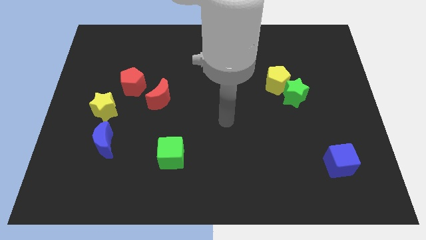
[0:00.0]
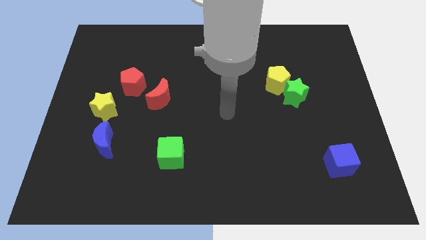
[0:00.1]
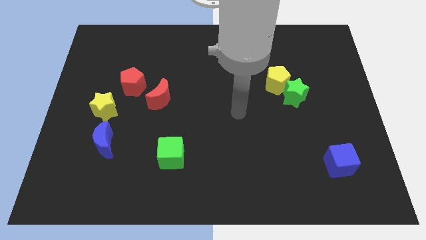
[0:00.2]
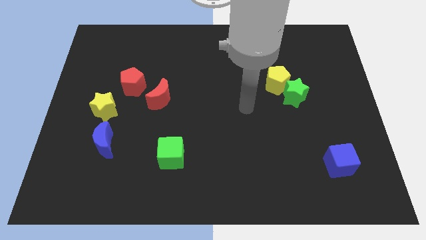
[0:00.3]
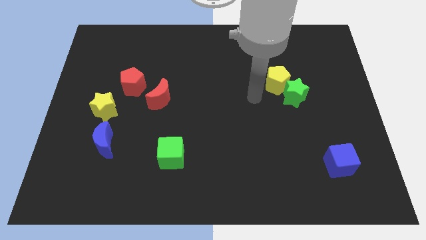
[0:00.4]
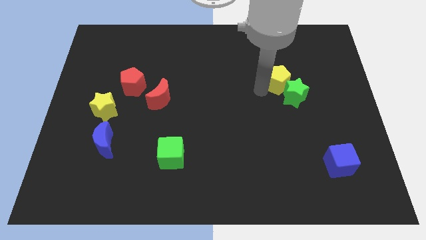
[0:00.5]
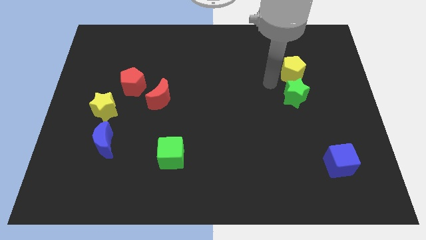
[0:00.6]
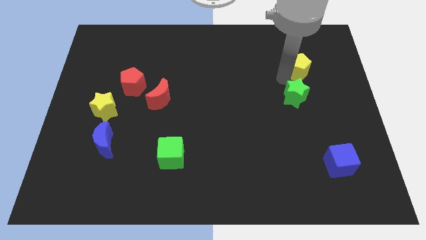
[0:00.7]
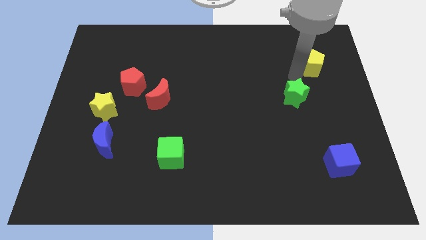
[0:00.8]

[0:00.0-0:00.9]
move the green star away from the yellow pentagon

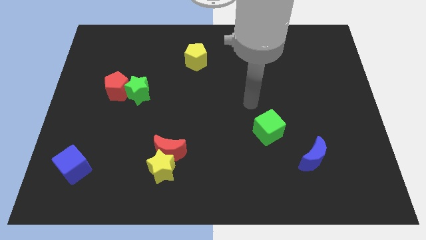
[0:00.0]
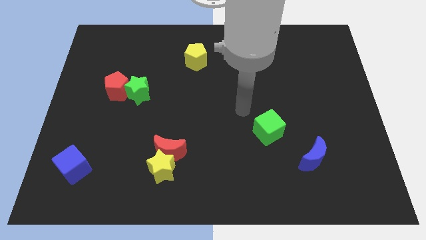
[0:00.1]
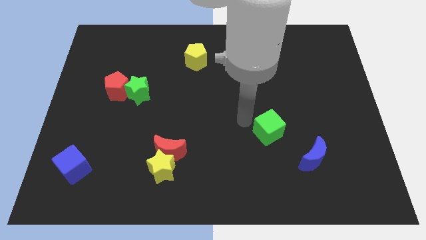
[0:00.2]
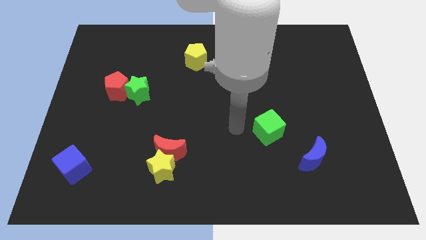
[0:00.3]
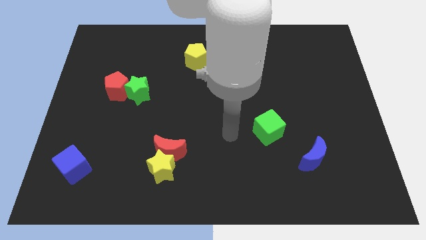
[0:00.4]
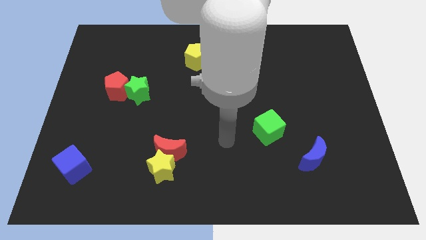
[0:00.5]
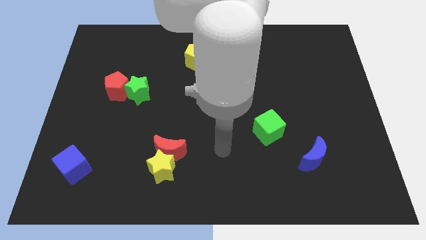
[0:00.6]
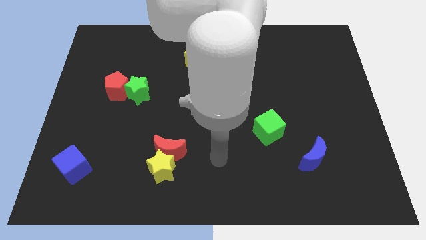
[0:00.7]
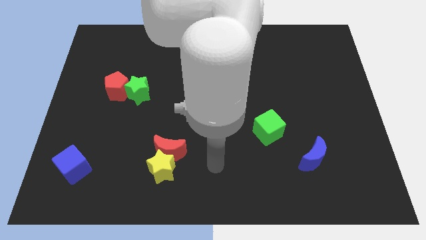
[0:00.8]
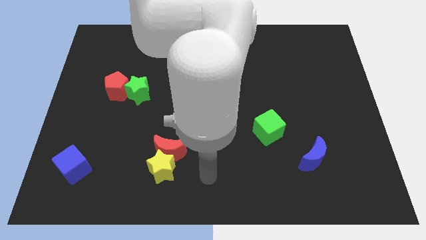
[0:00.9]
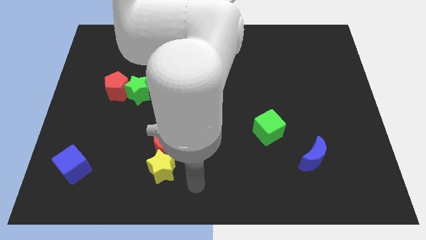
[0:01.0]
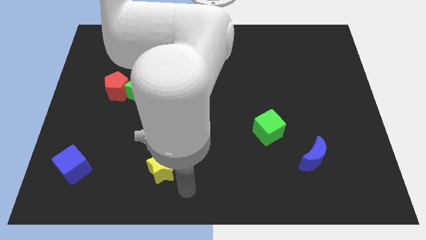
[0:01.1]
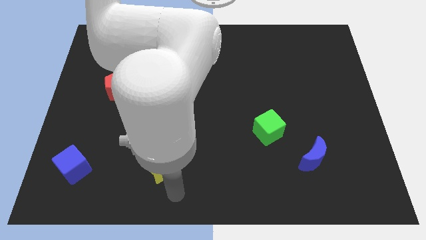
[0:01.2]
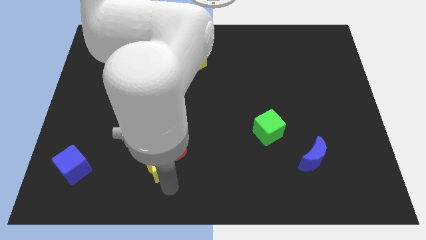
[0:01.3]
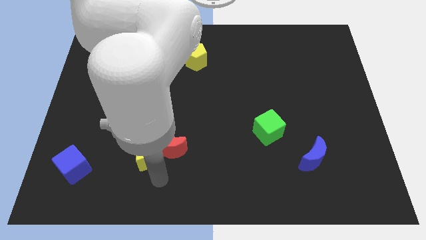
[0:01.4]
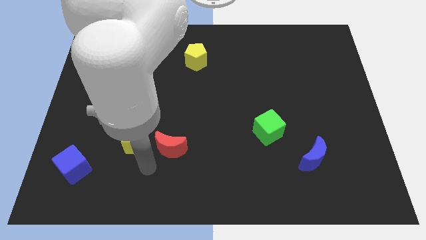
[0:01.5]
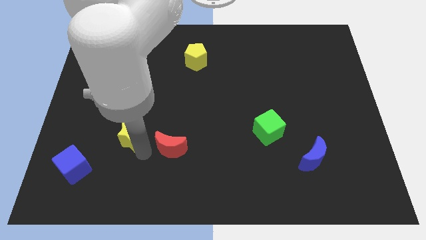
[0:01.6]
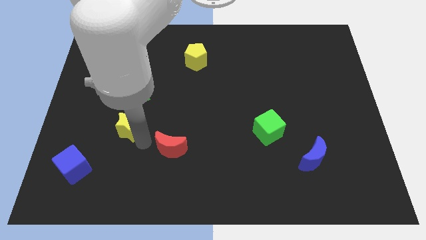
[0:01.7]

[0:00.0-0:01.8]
move the red moon away from the yellow star

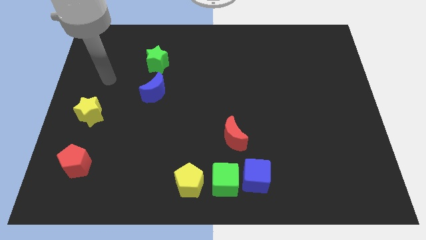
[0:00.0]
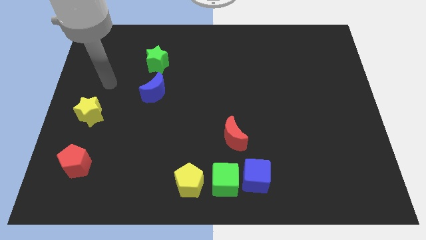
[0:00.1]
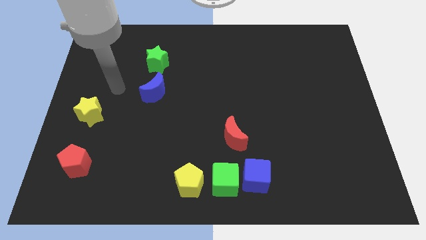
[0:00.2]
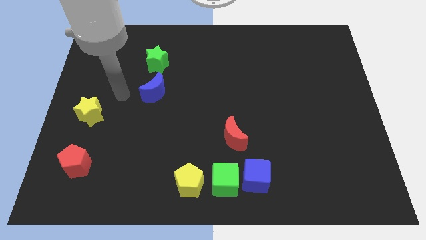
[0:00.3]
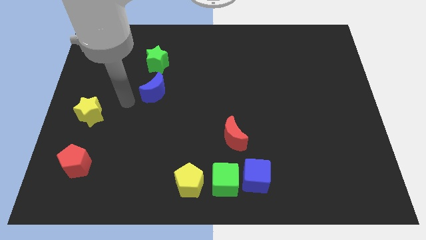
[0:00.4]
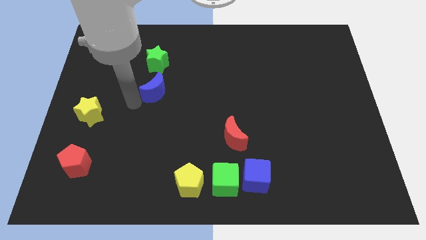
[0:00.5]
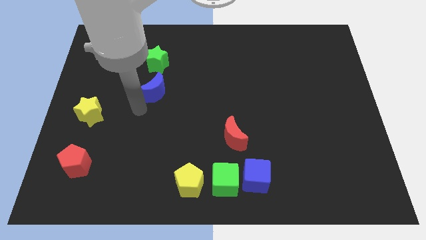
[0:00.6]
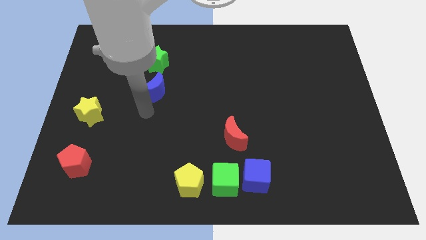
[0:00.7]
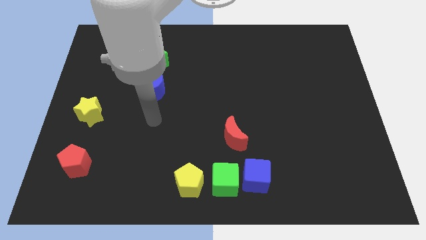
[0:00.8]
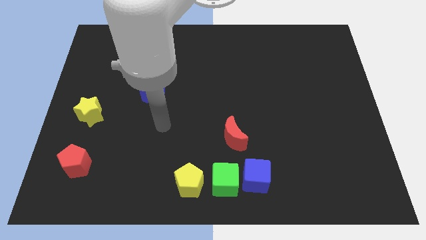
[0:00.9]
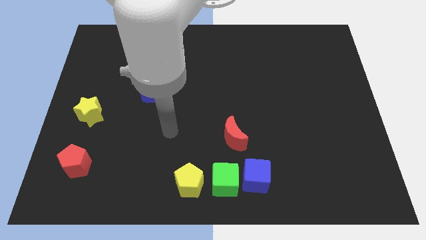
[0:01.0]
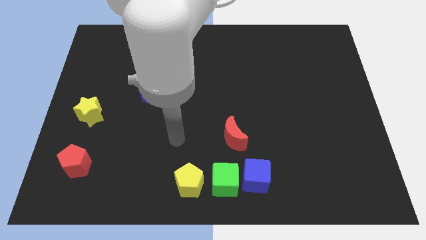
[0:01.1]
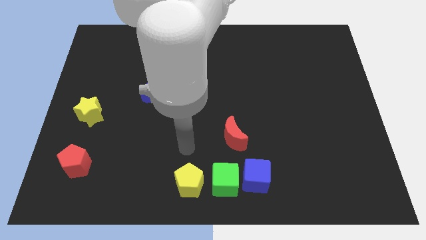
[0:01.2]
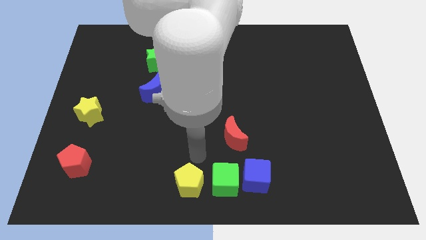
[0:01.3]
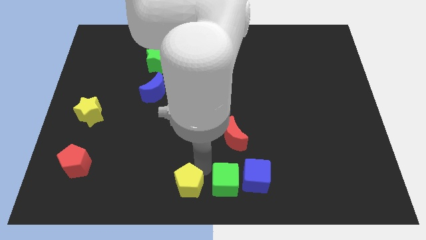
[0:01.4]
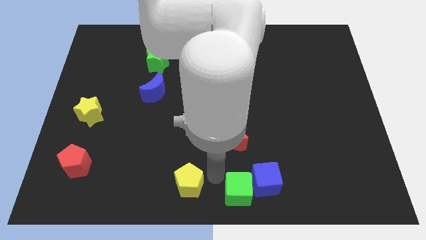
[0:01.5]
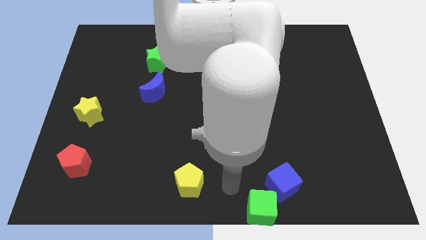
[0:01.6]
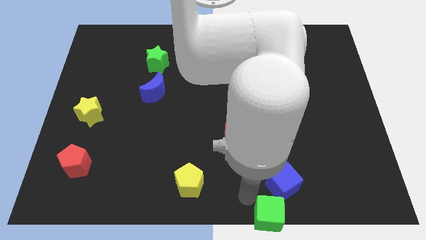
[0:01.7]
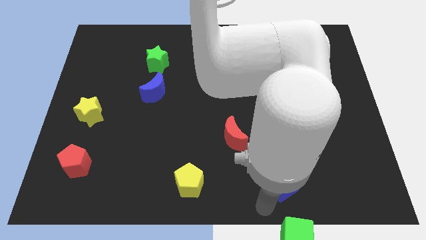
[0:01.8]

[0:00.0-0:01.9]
pull the blue cube apart from the green cube

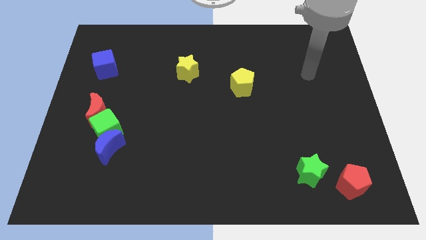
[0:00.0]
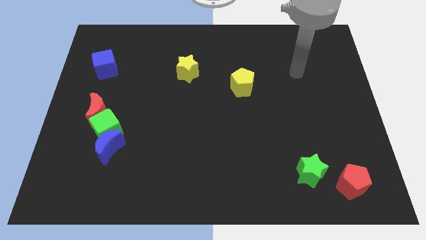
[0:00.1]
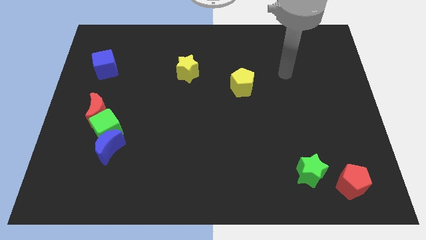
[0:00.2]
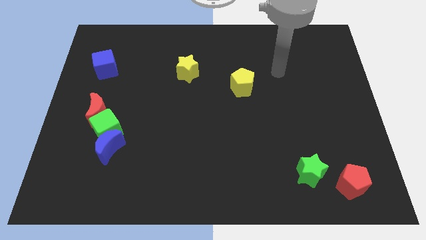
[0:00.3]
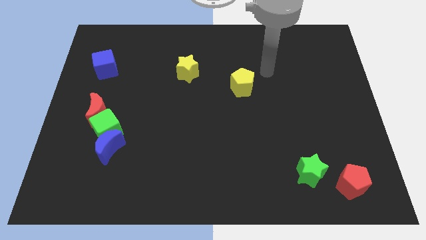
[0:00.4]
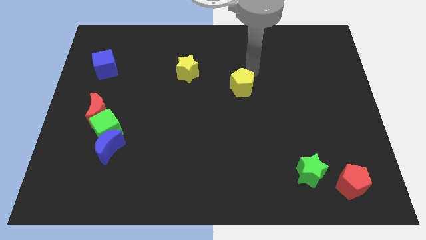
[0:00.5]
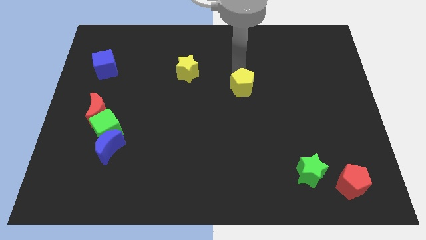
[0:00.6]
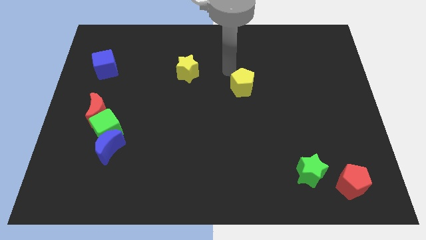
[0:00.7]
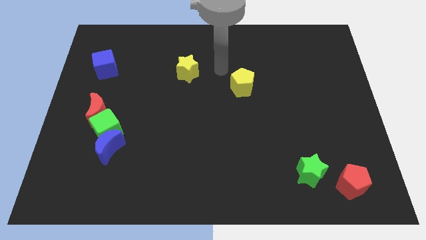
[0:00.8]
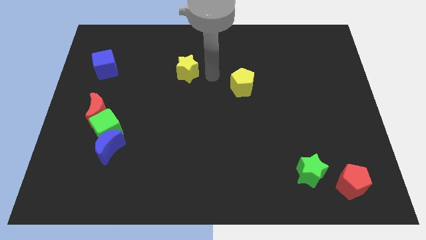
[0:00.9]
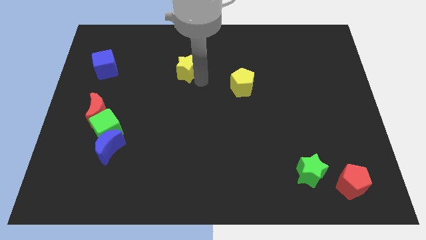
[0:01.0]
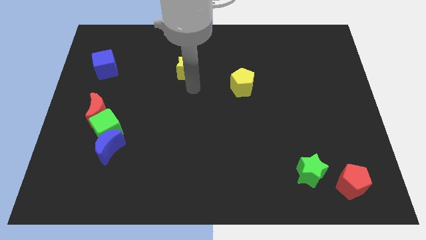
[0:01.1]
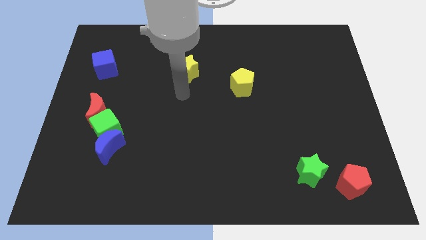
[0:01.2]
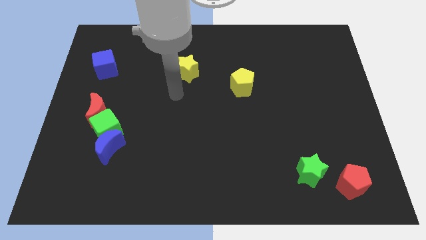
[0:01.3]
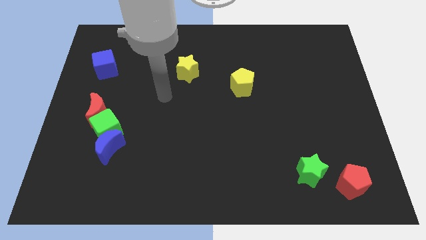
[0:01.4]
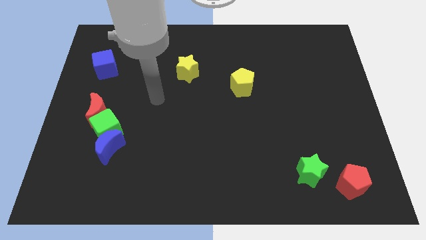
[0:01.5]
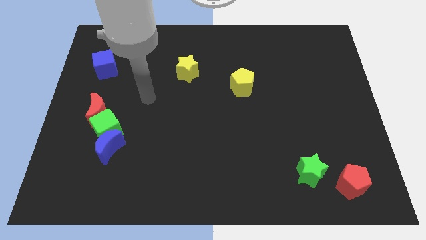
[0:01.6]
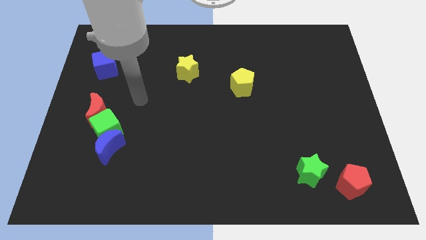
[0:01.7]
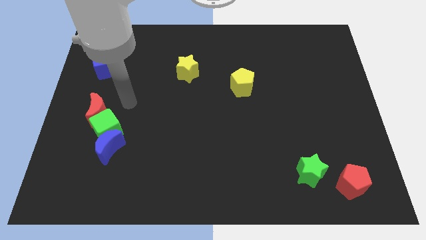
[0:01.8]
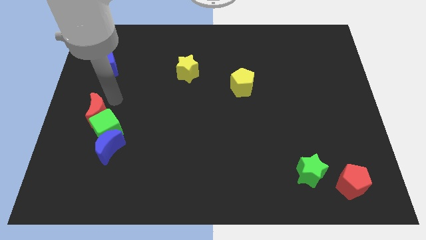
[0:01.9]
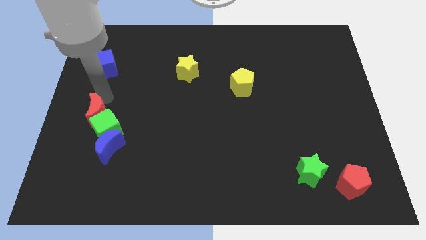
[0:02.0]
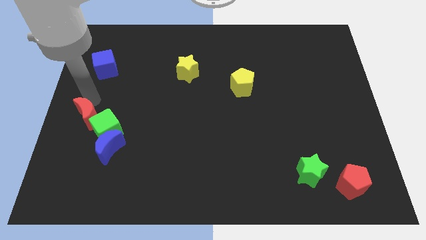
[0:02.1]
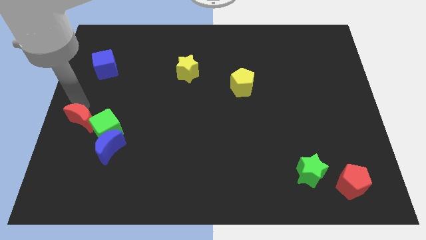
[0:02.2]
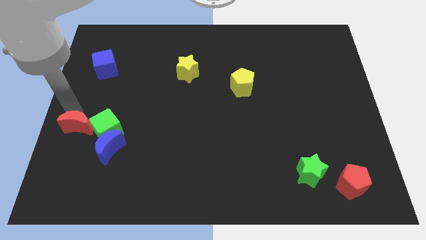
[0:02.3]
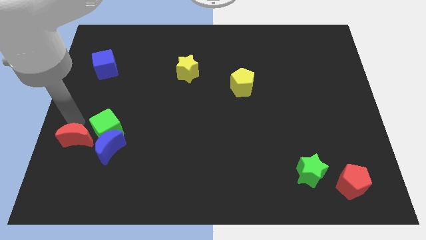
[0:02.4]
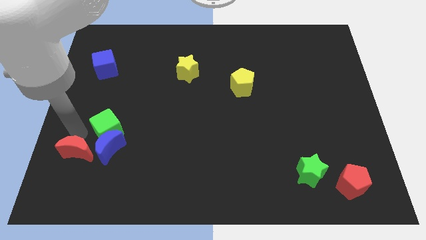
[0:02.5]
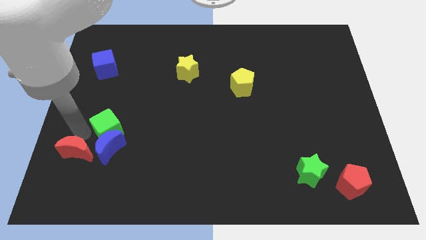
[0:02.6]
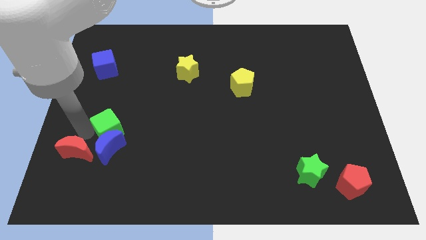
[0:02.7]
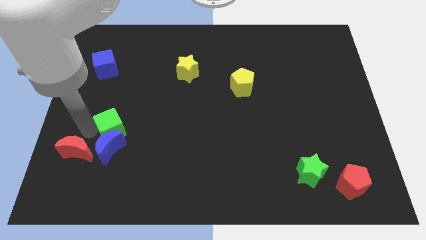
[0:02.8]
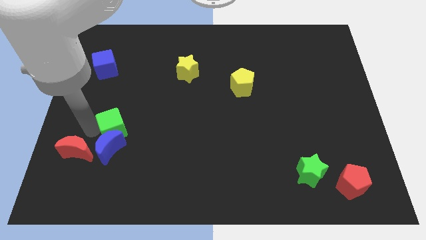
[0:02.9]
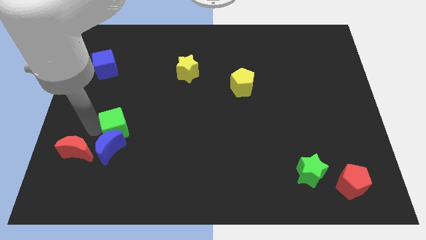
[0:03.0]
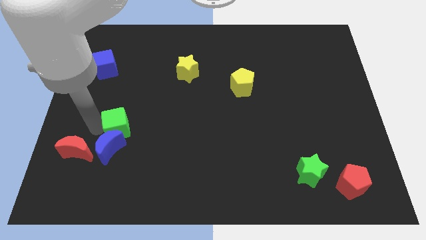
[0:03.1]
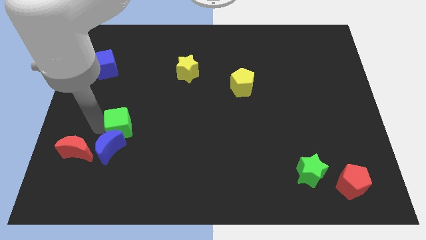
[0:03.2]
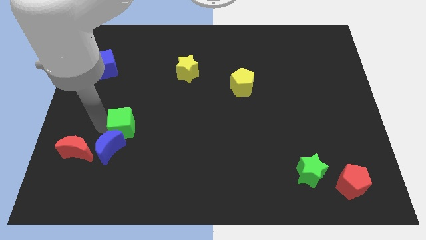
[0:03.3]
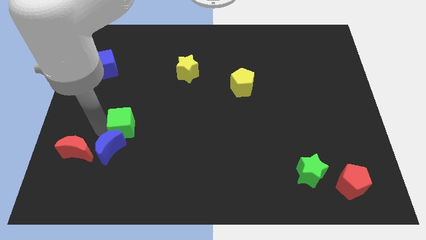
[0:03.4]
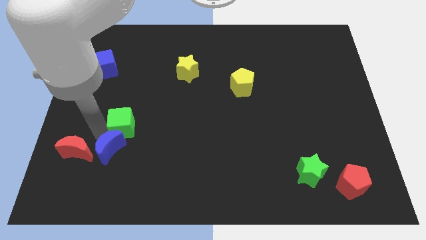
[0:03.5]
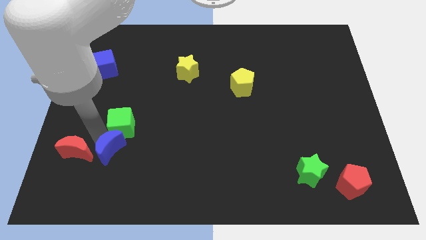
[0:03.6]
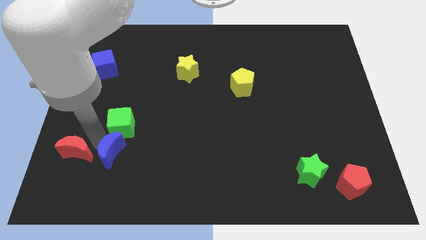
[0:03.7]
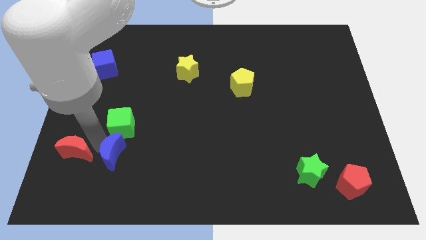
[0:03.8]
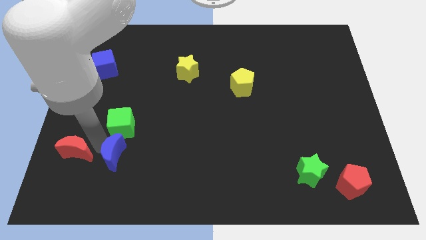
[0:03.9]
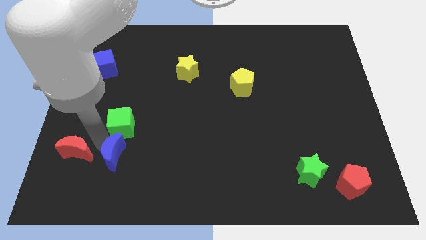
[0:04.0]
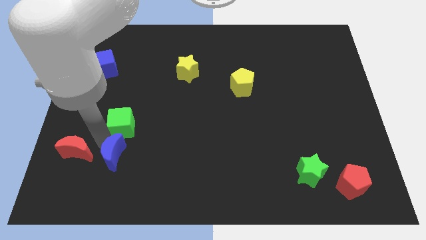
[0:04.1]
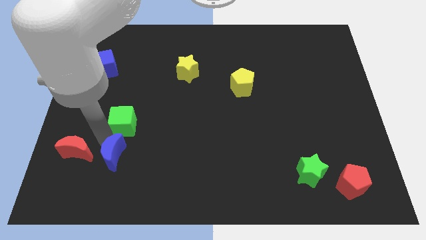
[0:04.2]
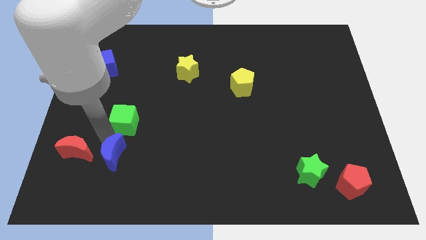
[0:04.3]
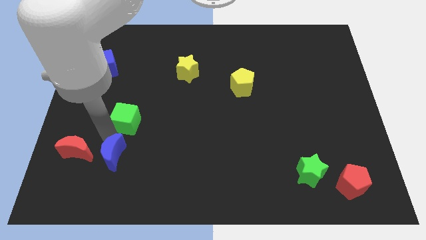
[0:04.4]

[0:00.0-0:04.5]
separate the green cube from the blue moon and red moon

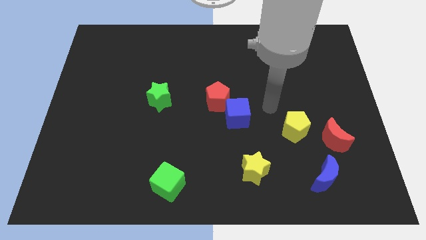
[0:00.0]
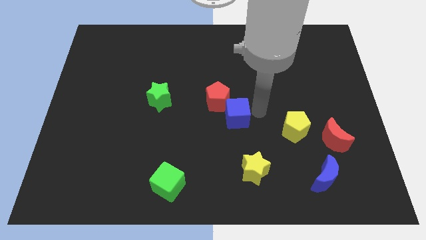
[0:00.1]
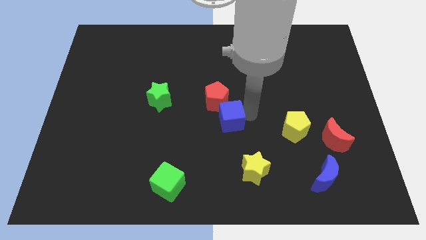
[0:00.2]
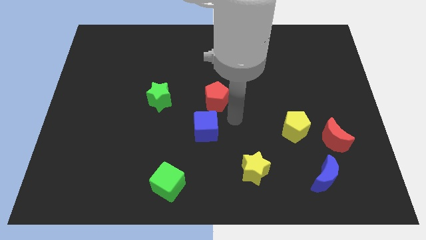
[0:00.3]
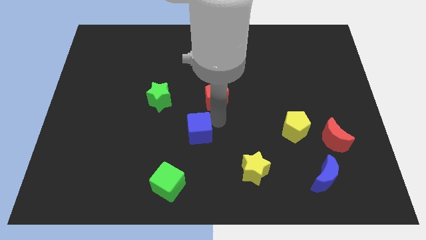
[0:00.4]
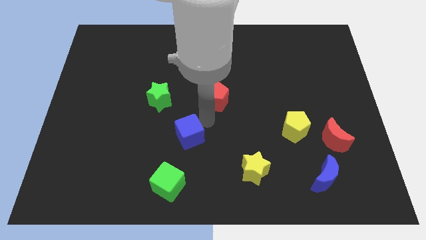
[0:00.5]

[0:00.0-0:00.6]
separate the red pentagon from the blue cube
